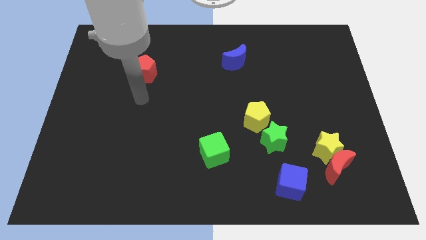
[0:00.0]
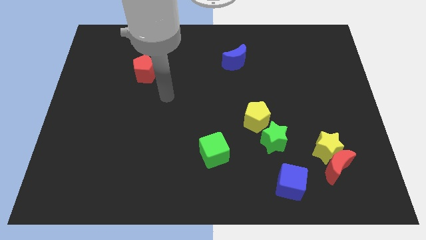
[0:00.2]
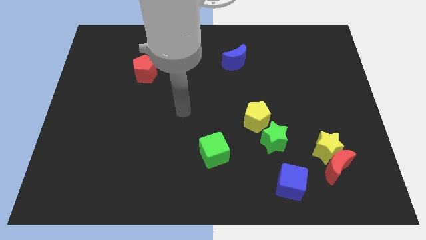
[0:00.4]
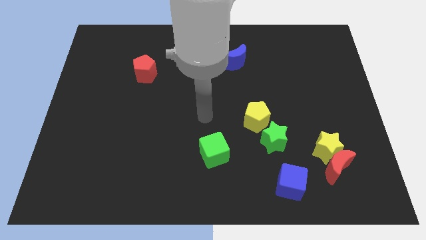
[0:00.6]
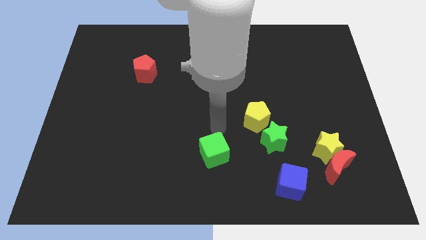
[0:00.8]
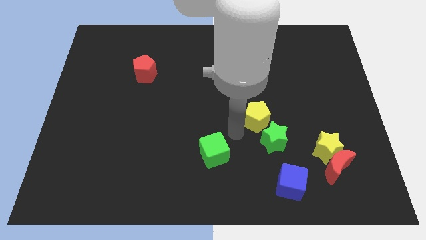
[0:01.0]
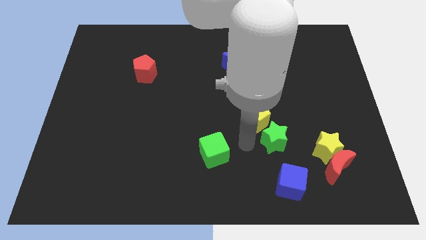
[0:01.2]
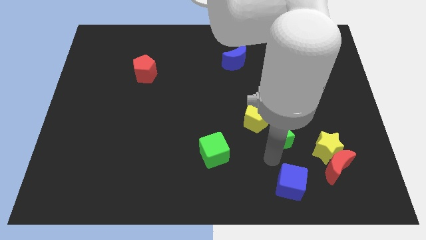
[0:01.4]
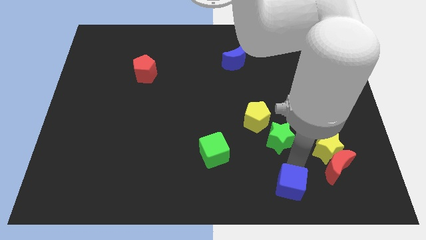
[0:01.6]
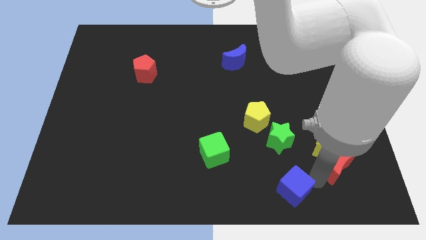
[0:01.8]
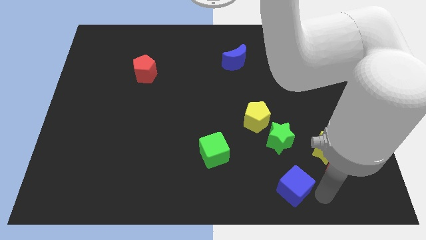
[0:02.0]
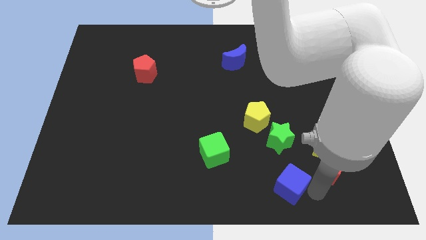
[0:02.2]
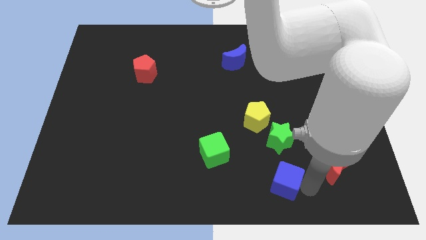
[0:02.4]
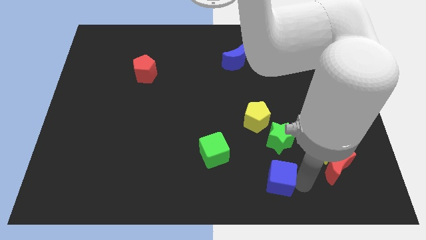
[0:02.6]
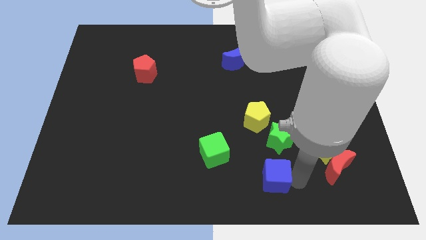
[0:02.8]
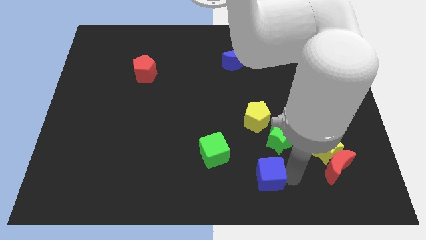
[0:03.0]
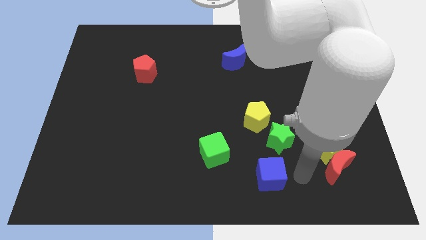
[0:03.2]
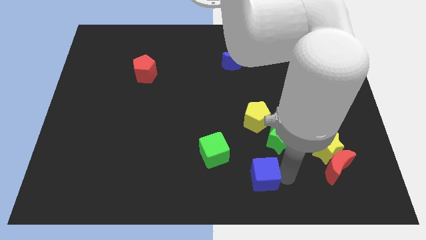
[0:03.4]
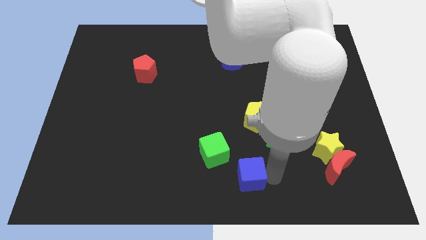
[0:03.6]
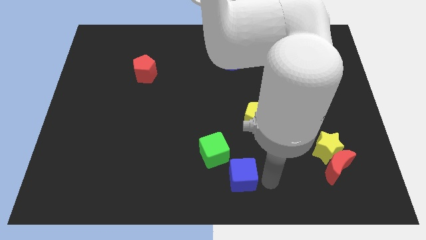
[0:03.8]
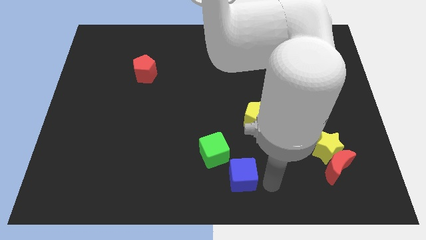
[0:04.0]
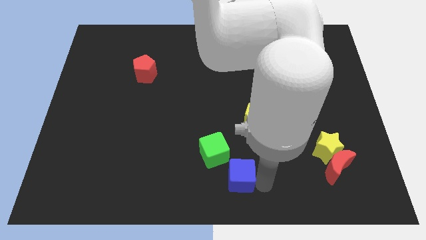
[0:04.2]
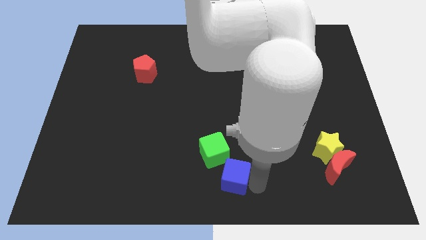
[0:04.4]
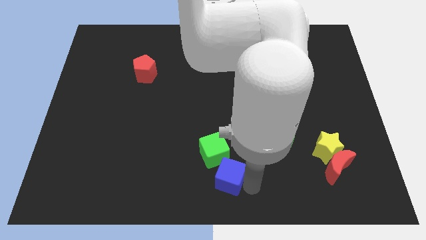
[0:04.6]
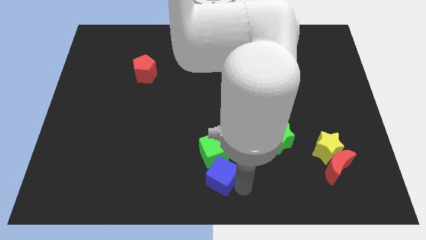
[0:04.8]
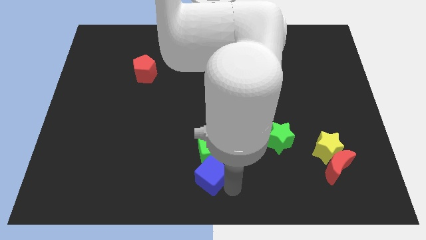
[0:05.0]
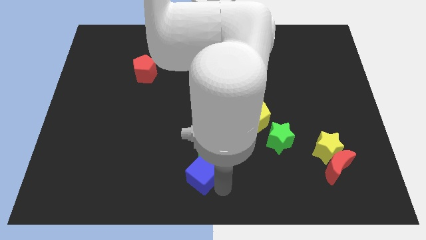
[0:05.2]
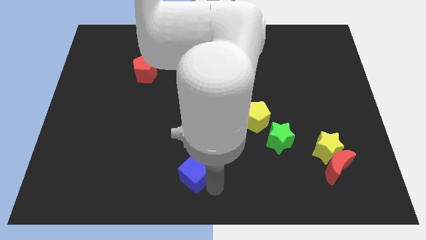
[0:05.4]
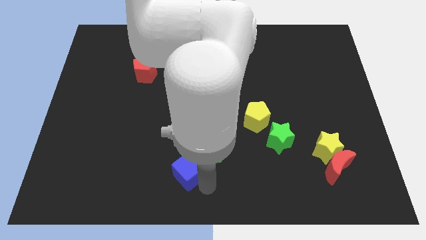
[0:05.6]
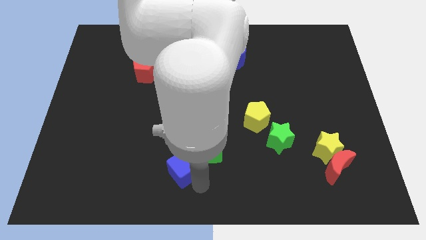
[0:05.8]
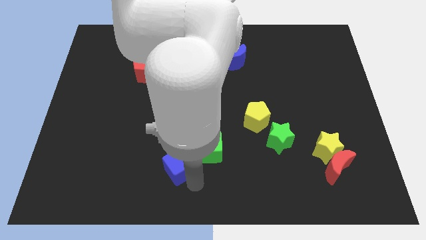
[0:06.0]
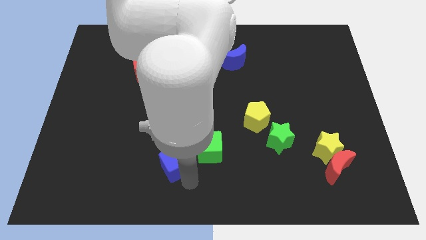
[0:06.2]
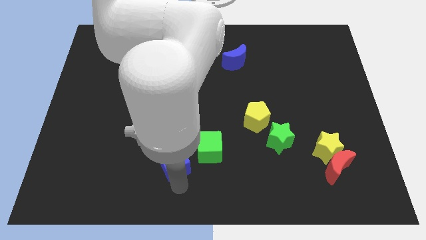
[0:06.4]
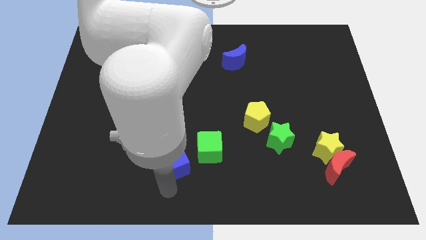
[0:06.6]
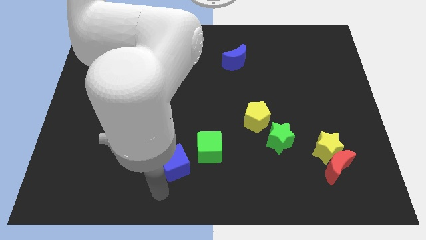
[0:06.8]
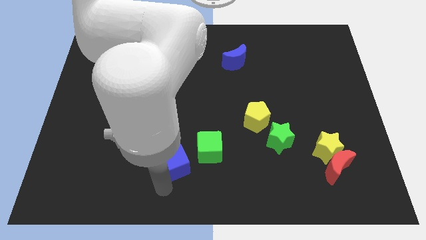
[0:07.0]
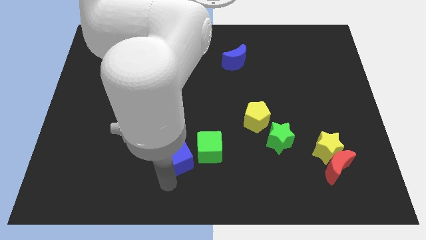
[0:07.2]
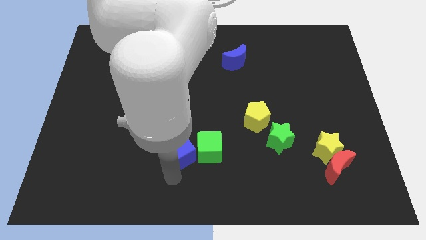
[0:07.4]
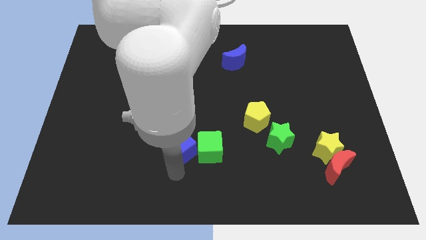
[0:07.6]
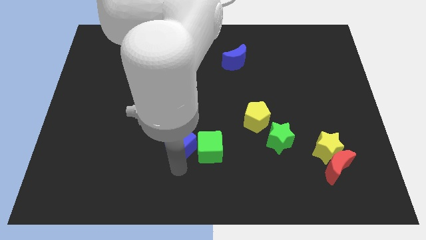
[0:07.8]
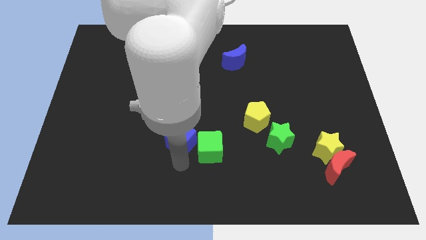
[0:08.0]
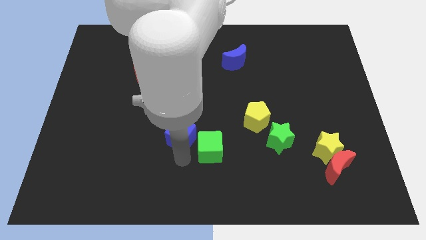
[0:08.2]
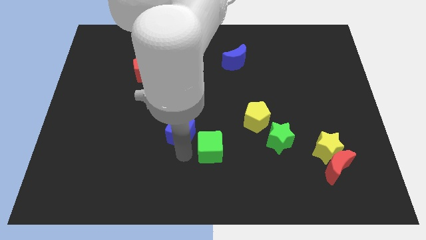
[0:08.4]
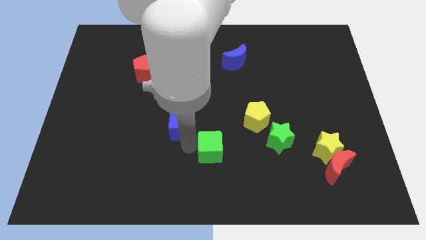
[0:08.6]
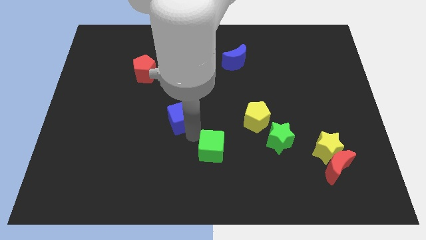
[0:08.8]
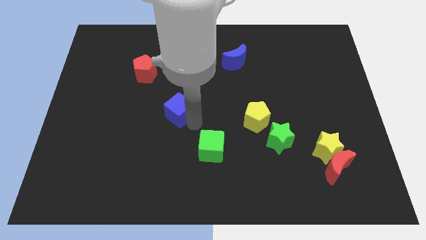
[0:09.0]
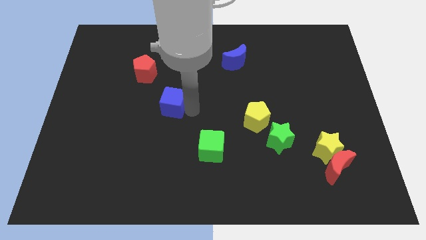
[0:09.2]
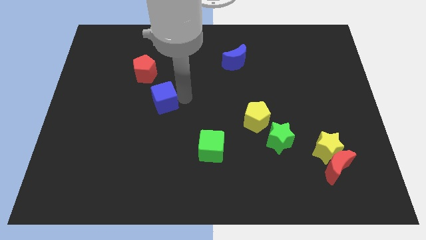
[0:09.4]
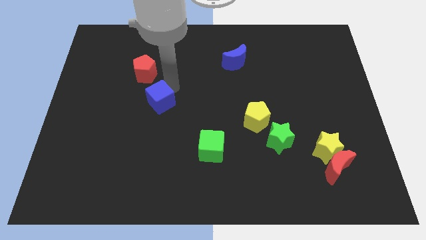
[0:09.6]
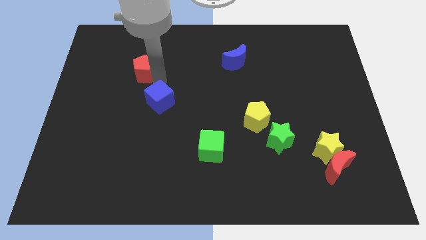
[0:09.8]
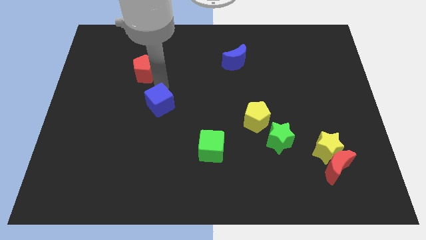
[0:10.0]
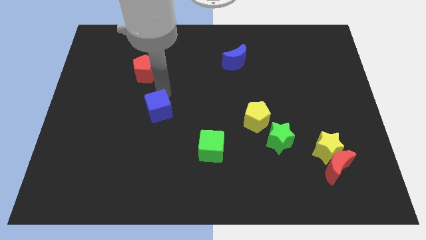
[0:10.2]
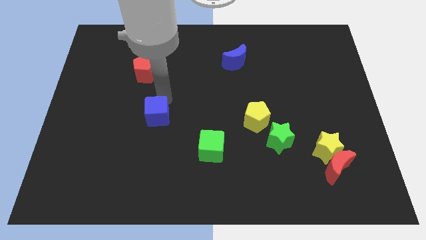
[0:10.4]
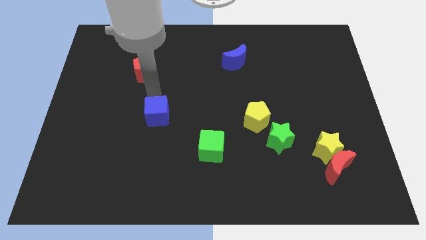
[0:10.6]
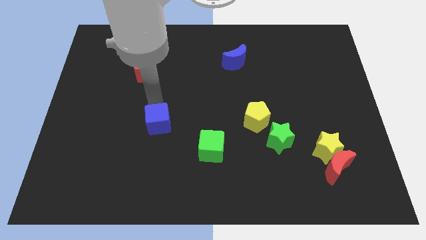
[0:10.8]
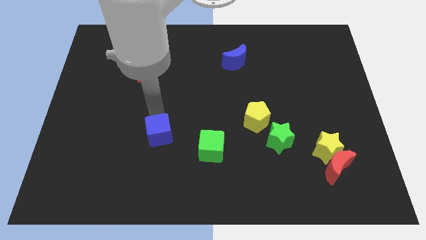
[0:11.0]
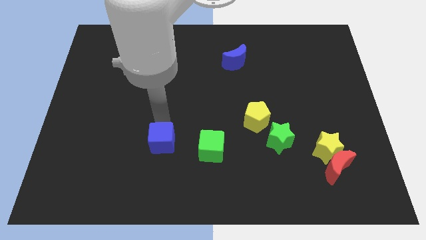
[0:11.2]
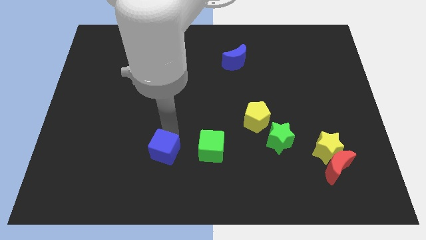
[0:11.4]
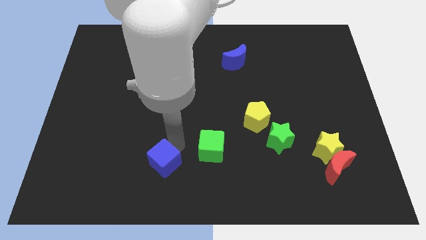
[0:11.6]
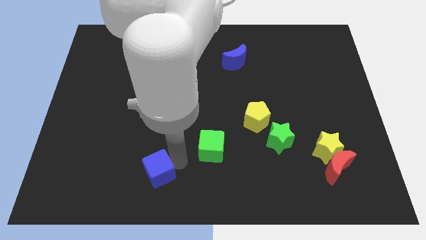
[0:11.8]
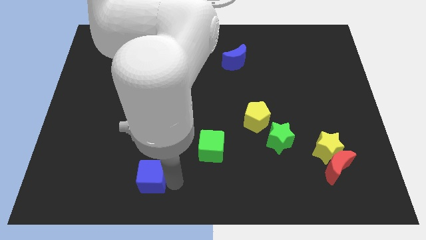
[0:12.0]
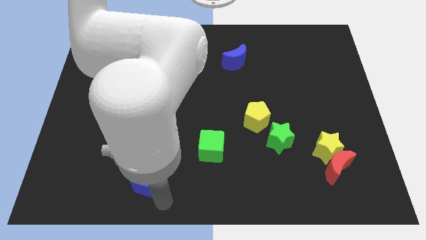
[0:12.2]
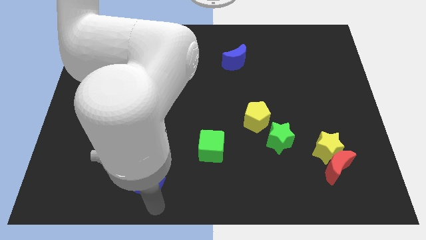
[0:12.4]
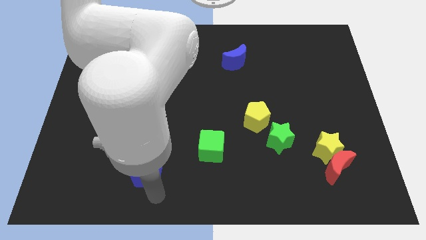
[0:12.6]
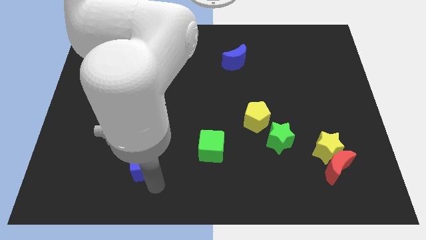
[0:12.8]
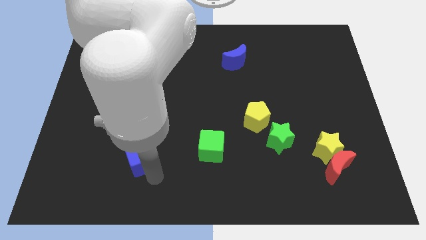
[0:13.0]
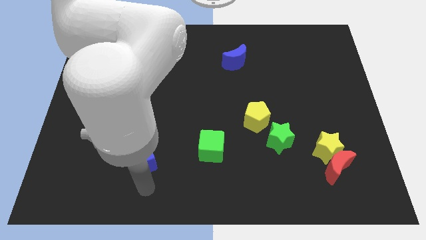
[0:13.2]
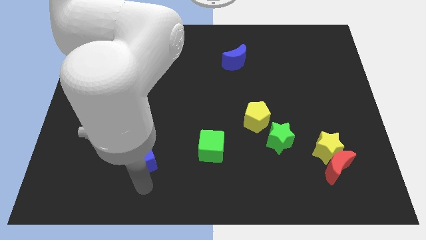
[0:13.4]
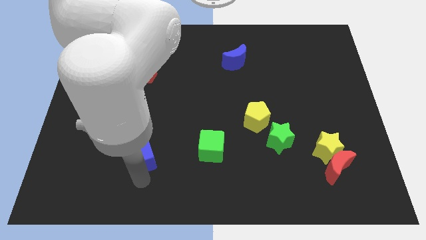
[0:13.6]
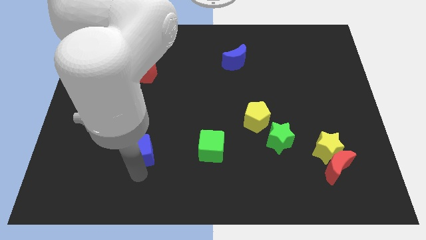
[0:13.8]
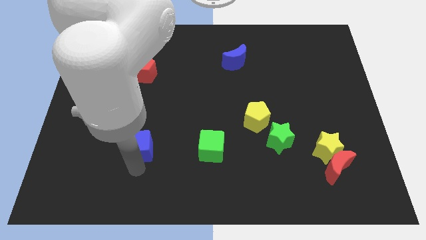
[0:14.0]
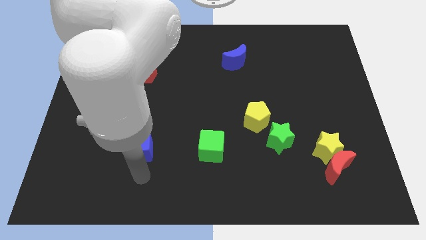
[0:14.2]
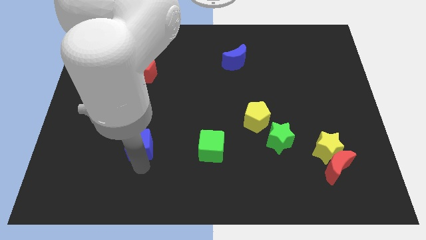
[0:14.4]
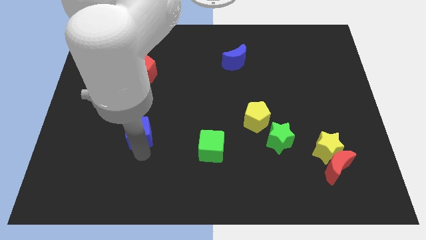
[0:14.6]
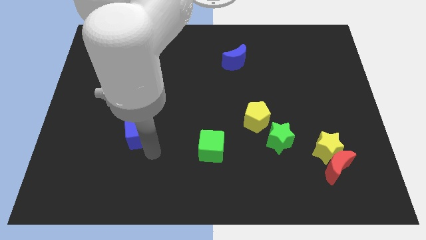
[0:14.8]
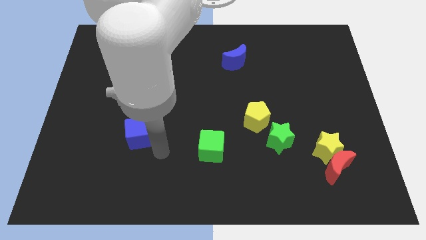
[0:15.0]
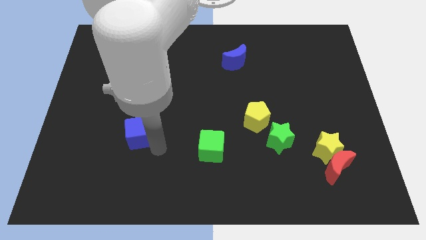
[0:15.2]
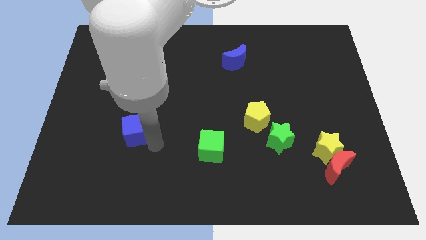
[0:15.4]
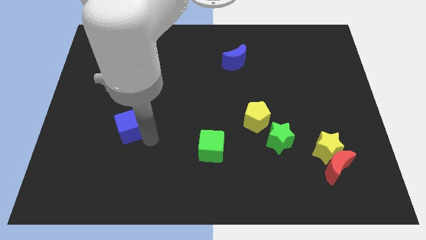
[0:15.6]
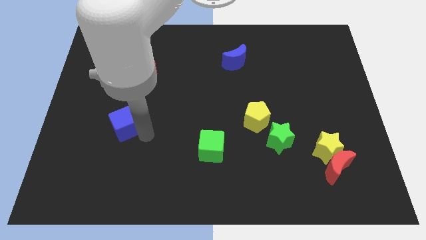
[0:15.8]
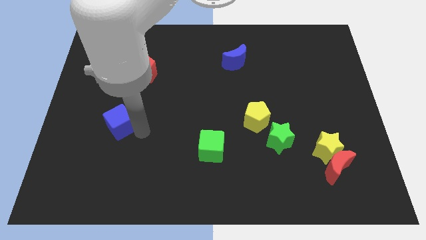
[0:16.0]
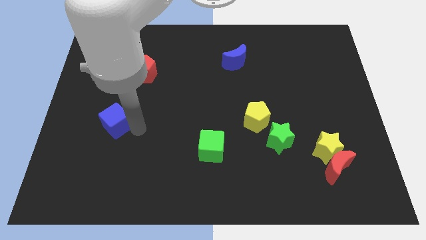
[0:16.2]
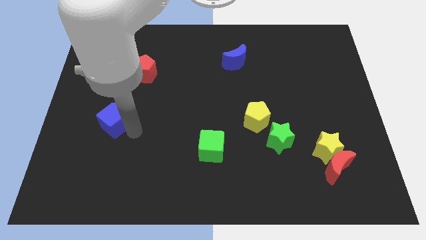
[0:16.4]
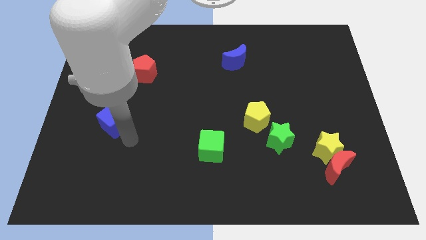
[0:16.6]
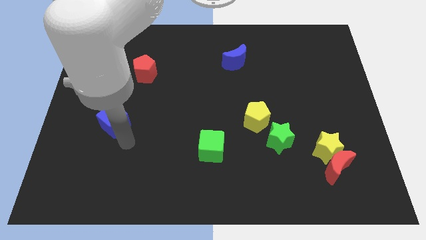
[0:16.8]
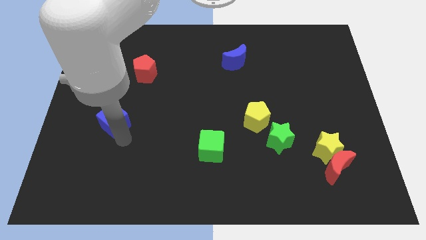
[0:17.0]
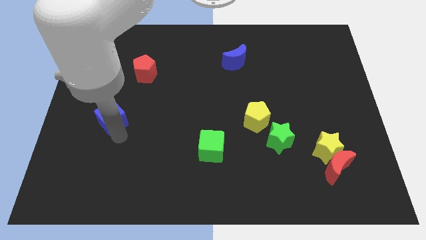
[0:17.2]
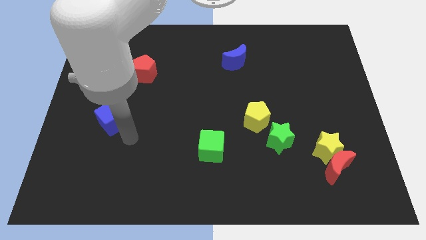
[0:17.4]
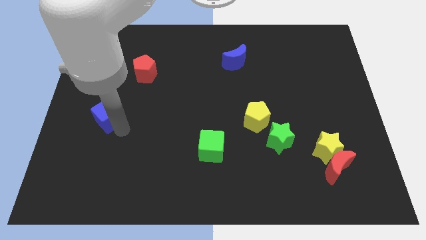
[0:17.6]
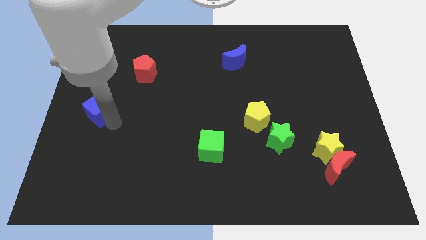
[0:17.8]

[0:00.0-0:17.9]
push the blue cube to the center left
